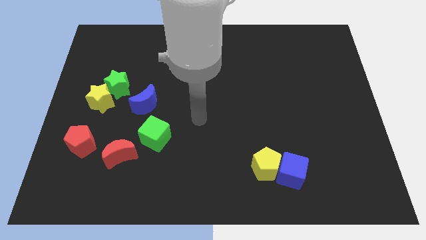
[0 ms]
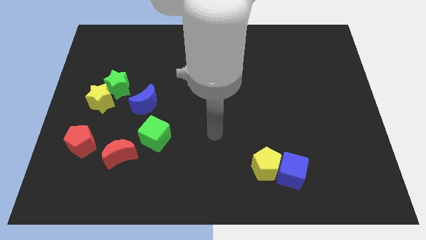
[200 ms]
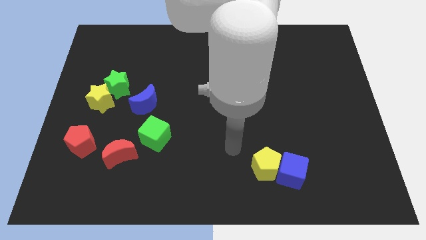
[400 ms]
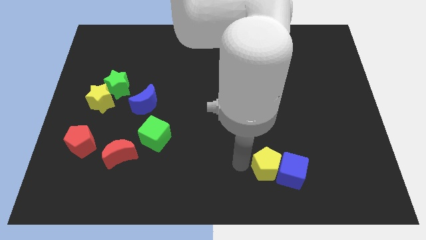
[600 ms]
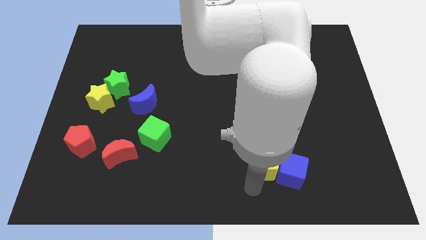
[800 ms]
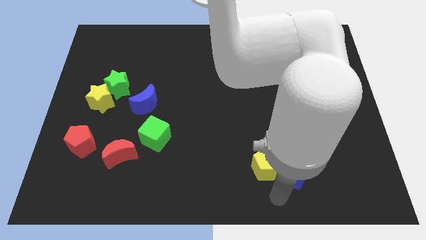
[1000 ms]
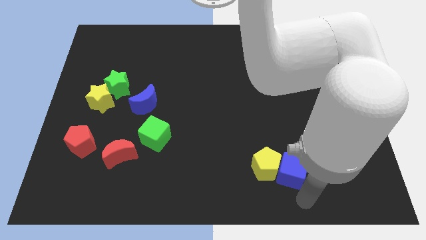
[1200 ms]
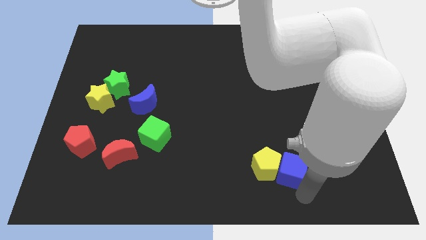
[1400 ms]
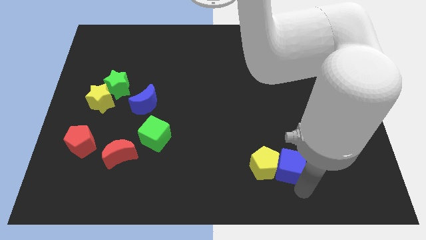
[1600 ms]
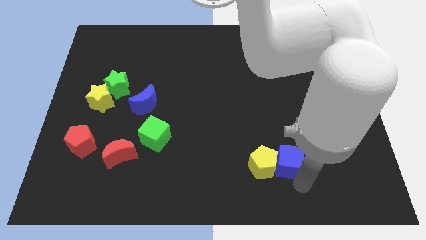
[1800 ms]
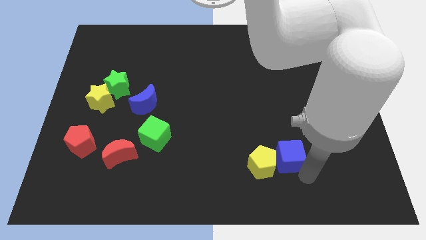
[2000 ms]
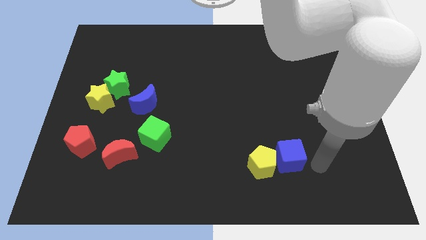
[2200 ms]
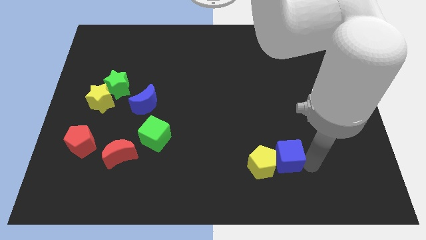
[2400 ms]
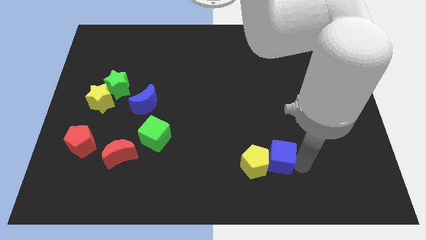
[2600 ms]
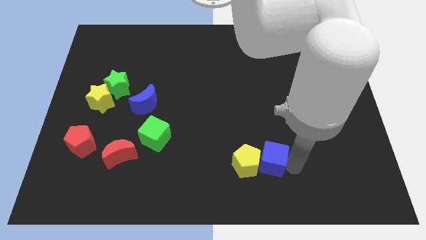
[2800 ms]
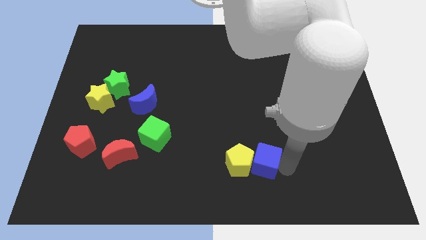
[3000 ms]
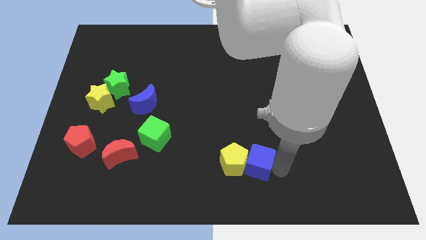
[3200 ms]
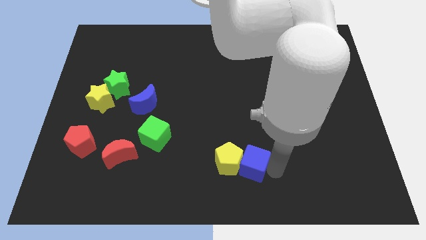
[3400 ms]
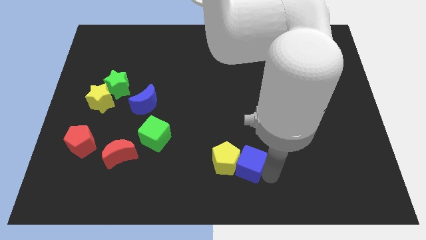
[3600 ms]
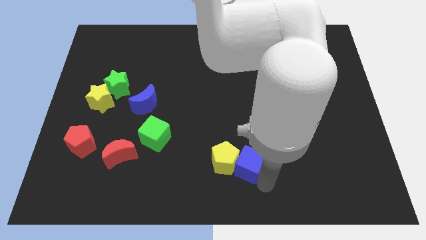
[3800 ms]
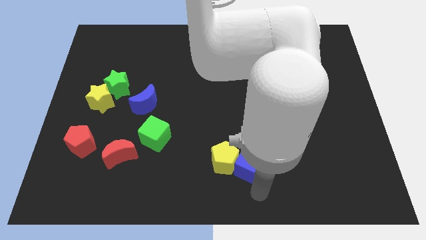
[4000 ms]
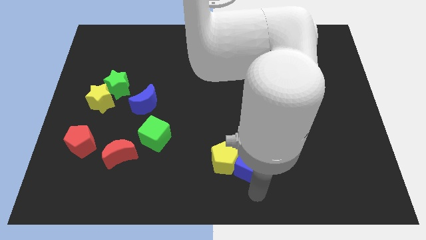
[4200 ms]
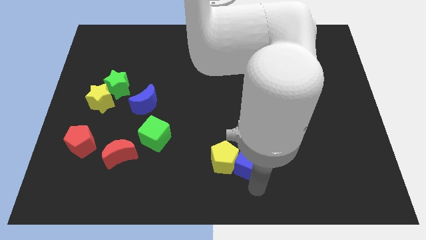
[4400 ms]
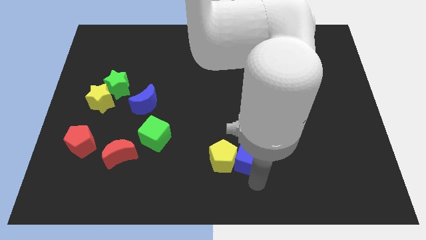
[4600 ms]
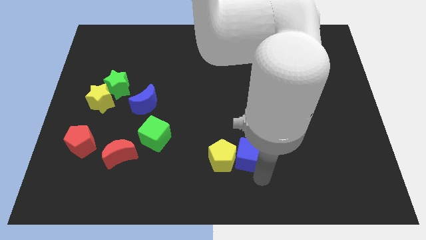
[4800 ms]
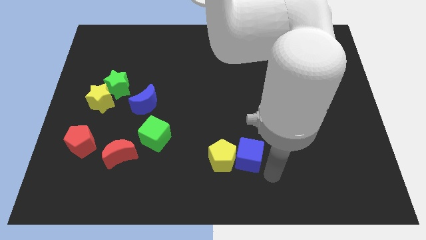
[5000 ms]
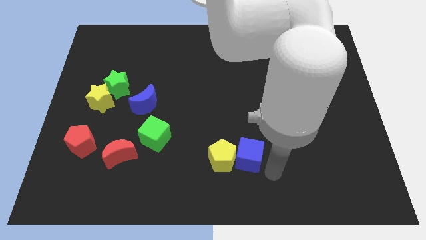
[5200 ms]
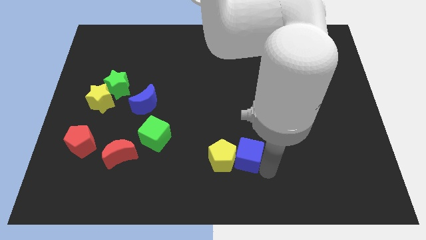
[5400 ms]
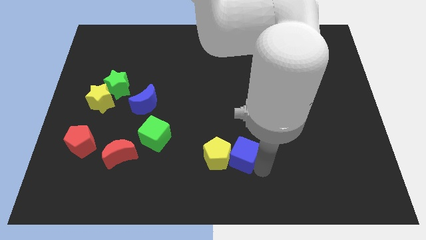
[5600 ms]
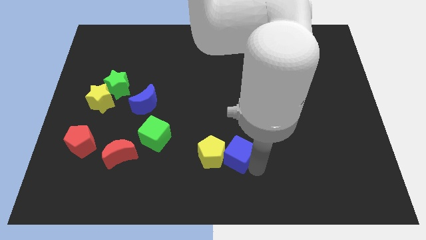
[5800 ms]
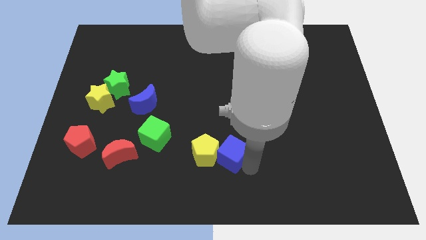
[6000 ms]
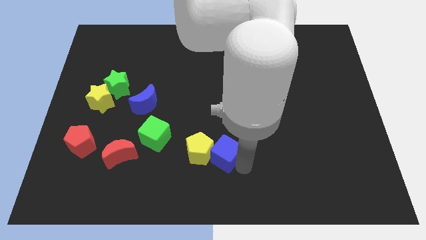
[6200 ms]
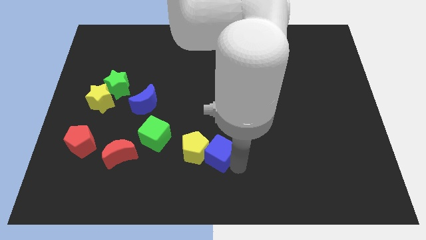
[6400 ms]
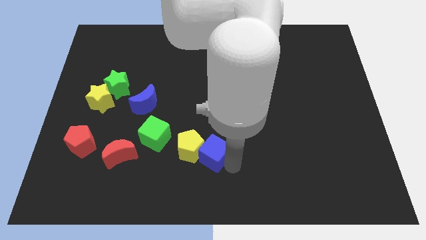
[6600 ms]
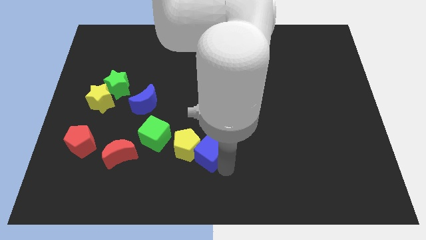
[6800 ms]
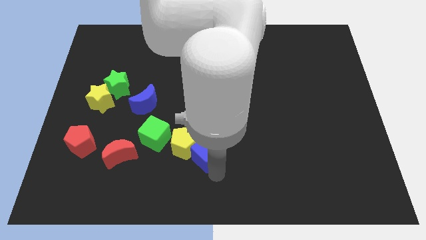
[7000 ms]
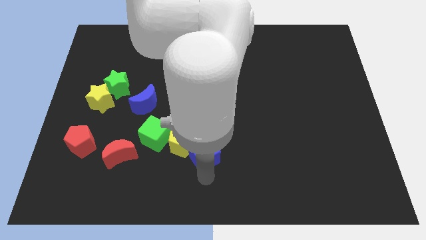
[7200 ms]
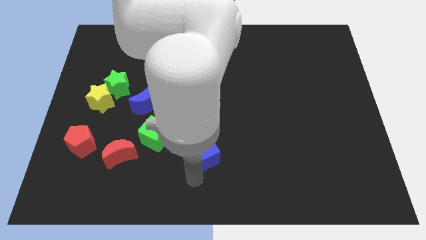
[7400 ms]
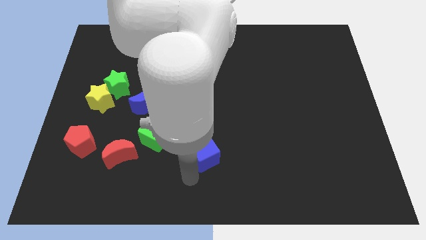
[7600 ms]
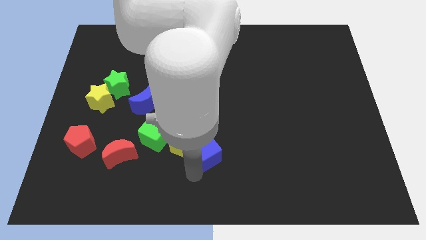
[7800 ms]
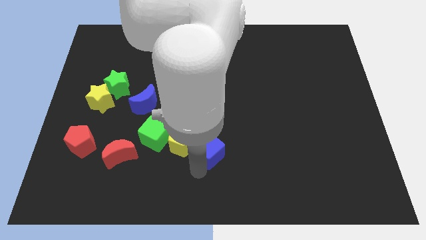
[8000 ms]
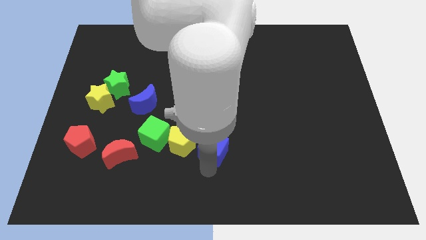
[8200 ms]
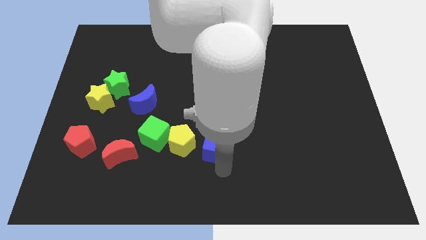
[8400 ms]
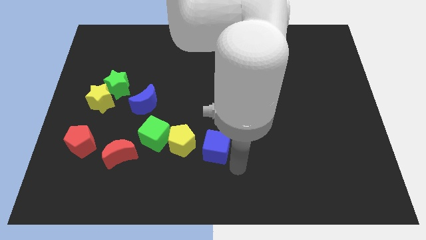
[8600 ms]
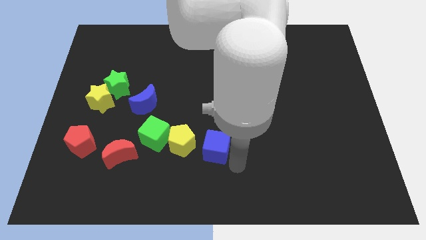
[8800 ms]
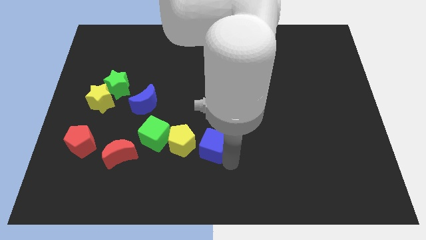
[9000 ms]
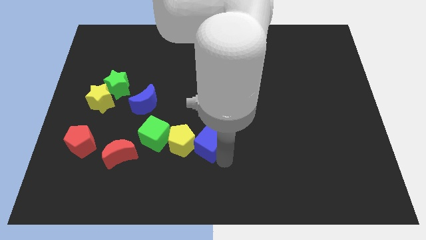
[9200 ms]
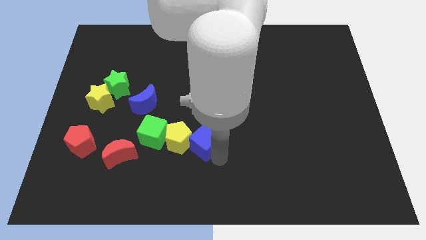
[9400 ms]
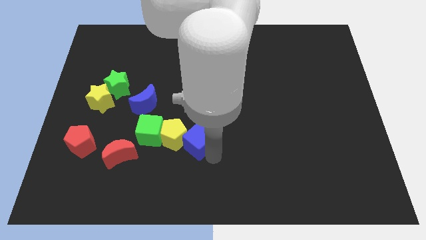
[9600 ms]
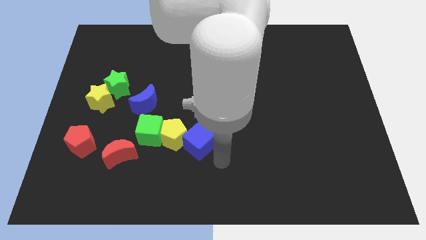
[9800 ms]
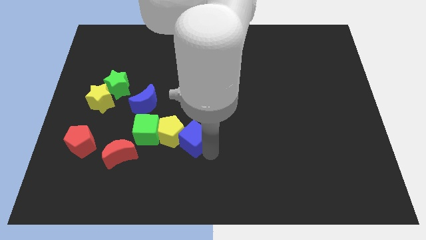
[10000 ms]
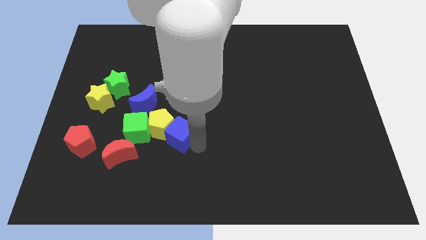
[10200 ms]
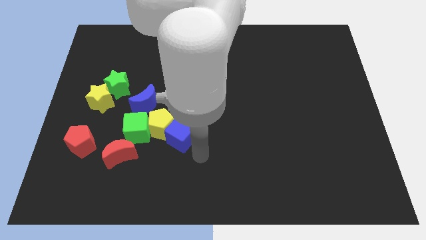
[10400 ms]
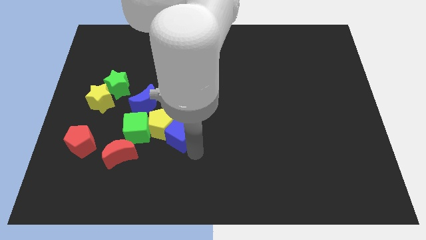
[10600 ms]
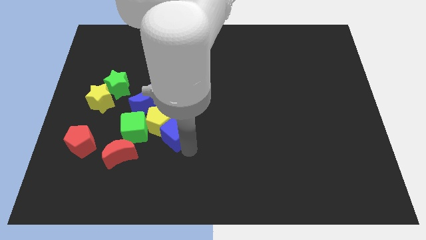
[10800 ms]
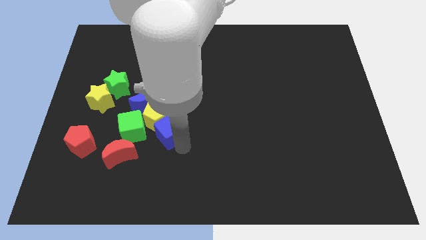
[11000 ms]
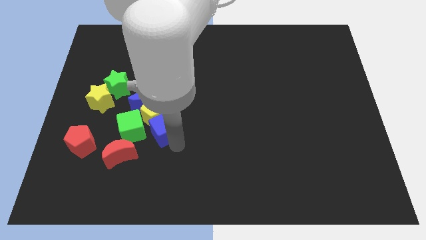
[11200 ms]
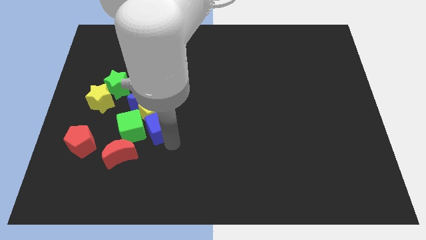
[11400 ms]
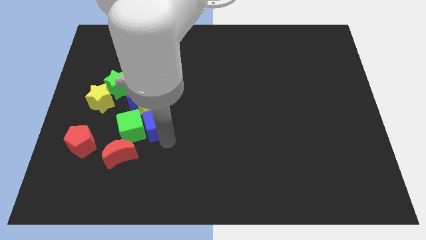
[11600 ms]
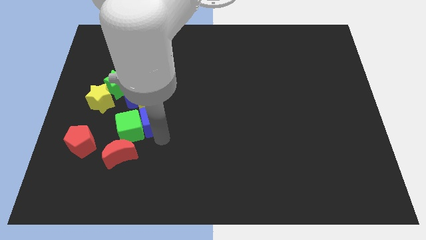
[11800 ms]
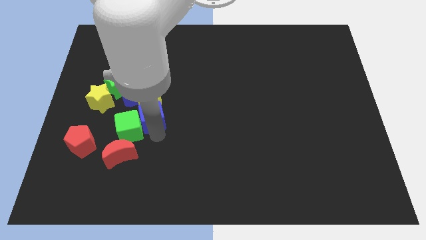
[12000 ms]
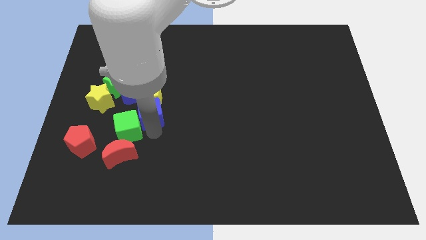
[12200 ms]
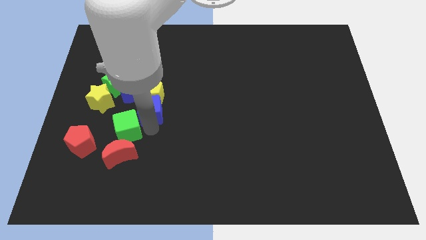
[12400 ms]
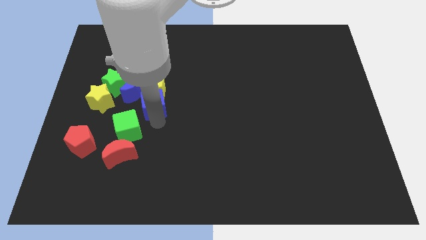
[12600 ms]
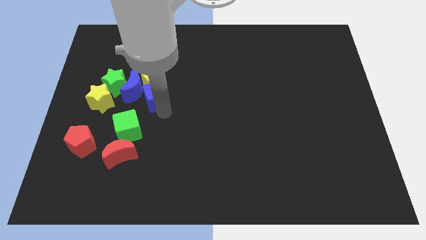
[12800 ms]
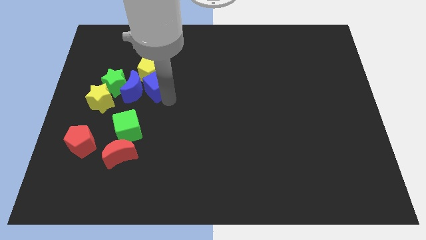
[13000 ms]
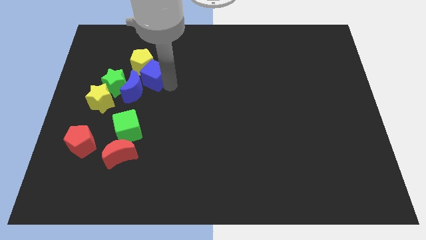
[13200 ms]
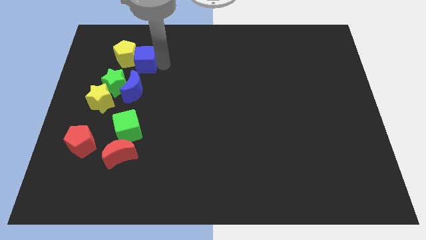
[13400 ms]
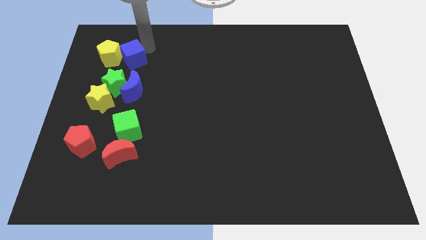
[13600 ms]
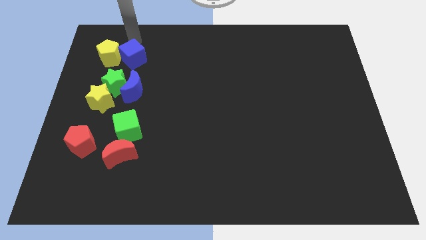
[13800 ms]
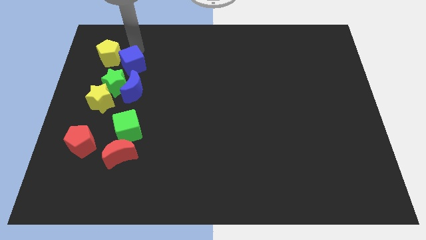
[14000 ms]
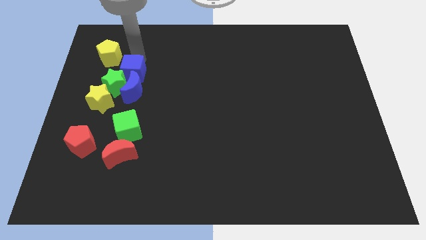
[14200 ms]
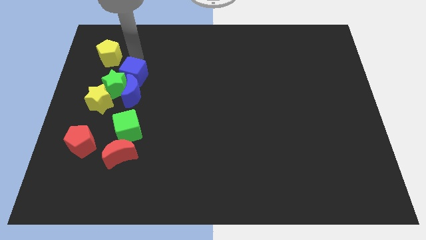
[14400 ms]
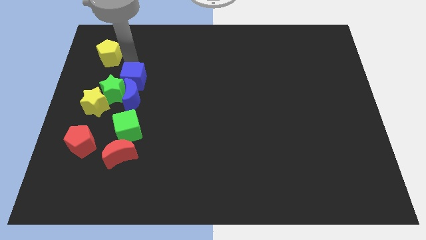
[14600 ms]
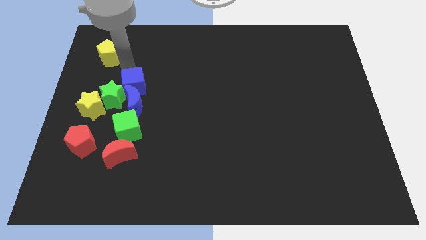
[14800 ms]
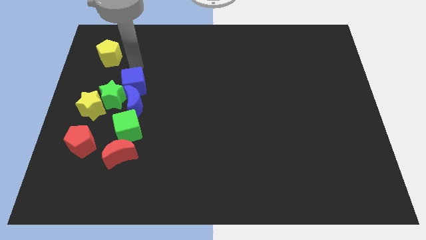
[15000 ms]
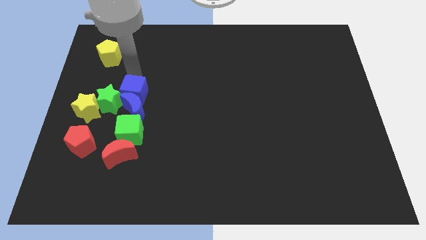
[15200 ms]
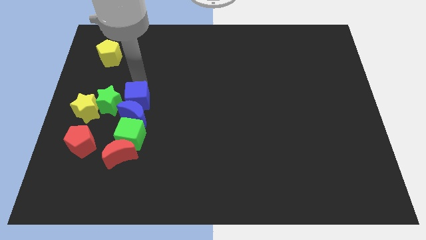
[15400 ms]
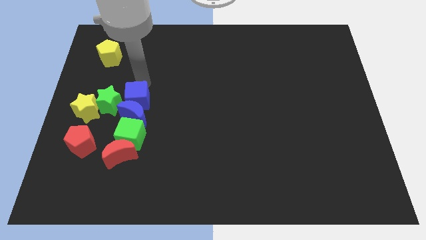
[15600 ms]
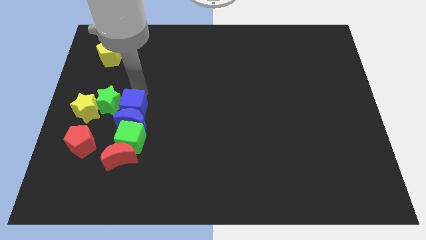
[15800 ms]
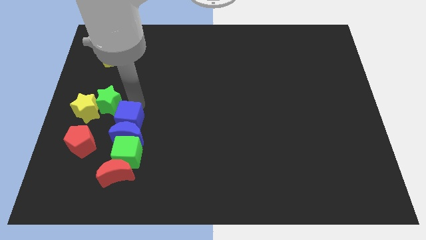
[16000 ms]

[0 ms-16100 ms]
move the blue cube to the bottom side of the green star
